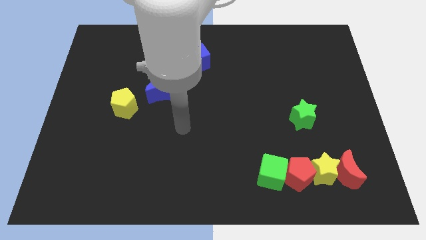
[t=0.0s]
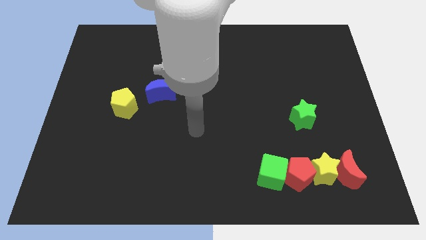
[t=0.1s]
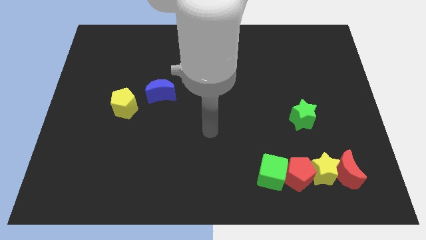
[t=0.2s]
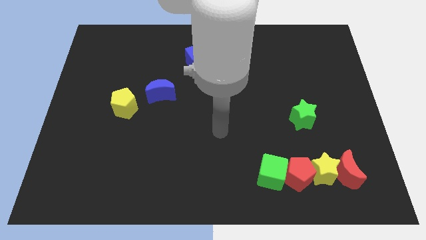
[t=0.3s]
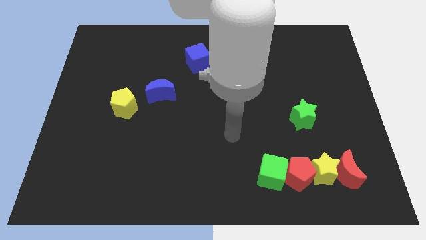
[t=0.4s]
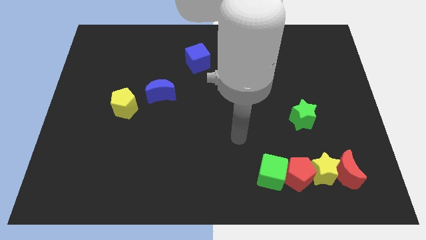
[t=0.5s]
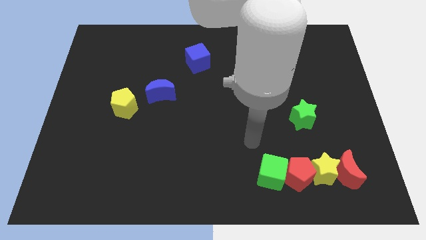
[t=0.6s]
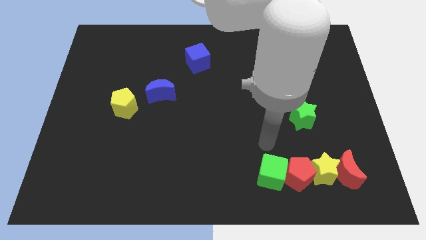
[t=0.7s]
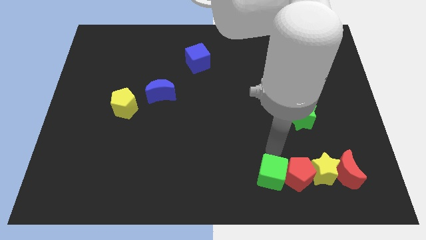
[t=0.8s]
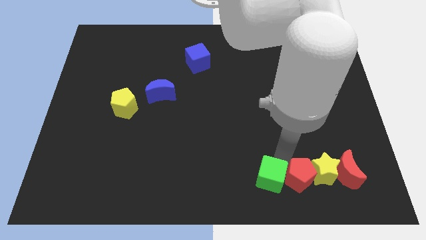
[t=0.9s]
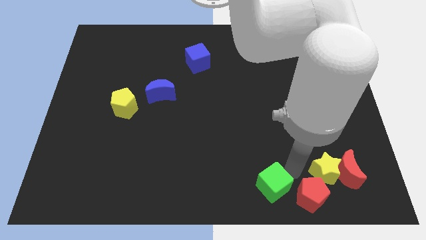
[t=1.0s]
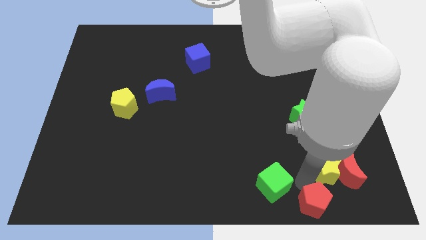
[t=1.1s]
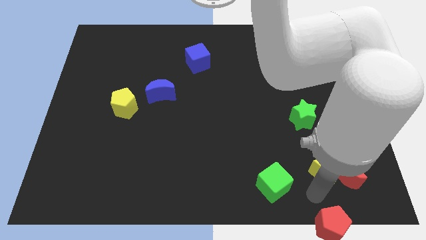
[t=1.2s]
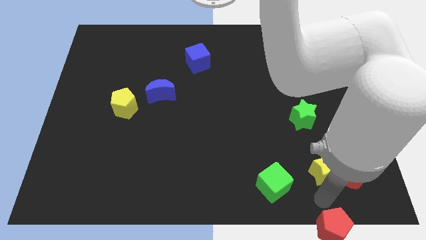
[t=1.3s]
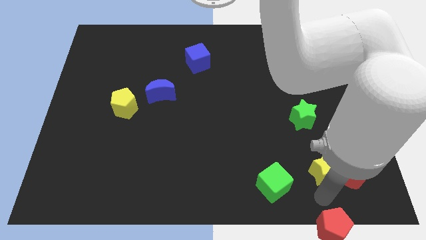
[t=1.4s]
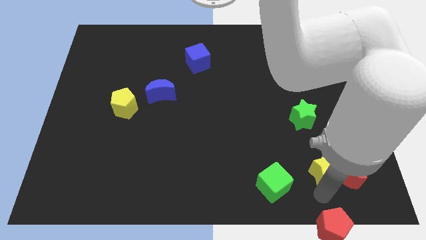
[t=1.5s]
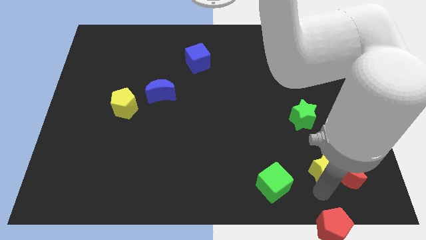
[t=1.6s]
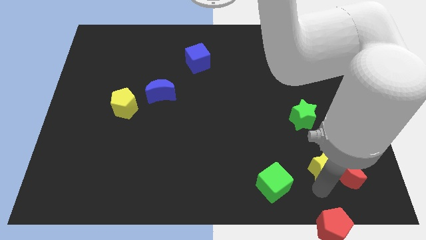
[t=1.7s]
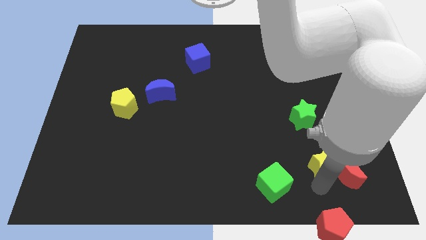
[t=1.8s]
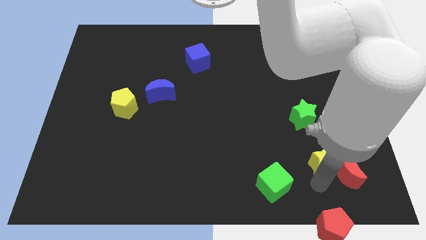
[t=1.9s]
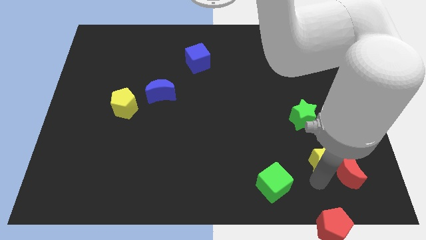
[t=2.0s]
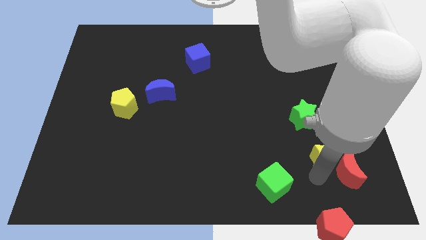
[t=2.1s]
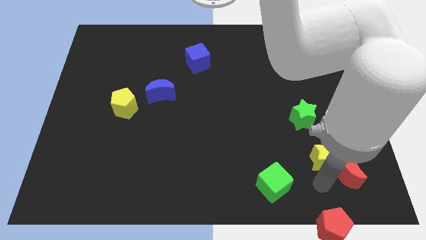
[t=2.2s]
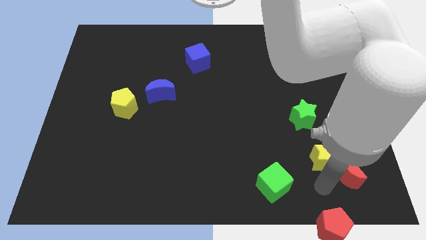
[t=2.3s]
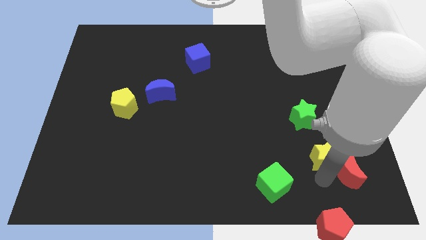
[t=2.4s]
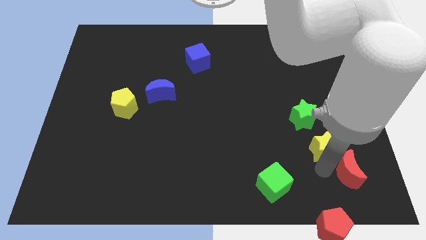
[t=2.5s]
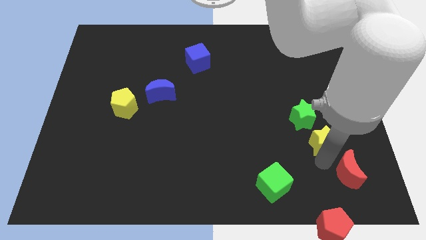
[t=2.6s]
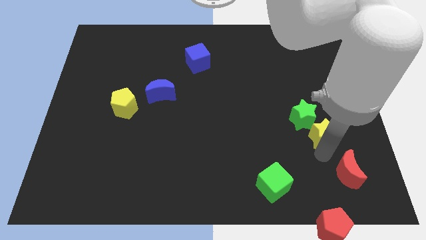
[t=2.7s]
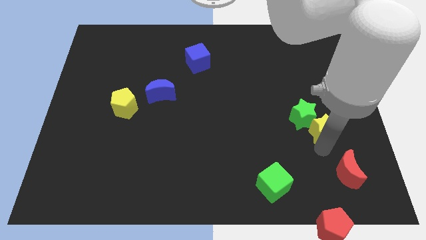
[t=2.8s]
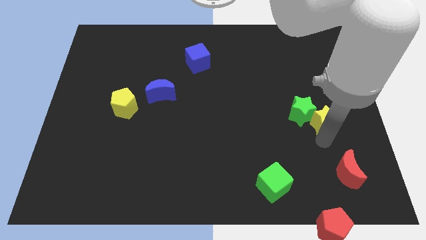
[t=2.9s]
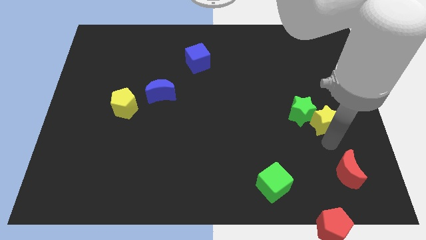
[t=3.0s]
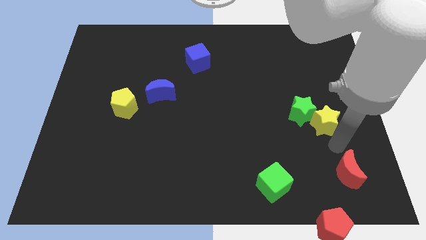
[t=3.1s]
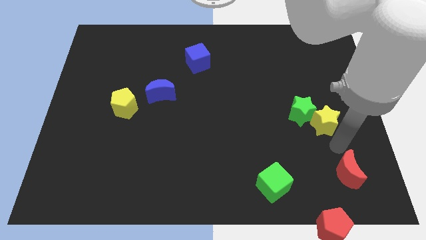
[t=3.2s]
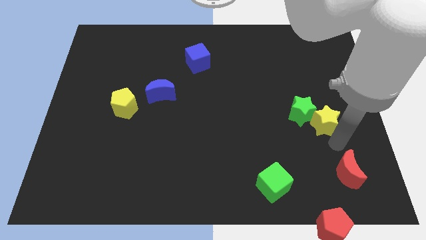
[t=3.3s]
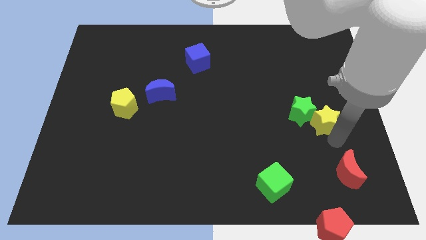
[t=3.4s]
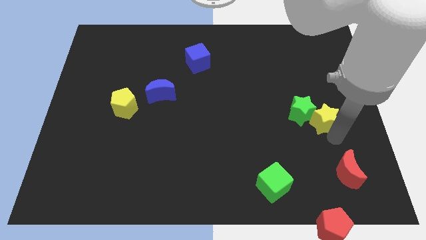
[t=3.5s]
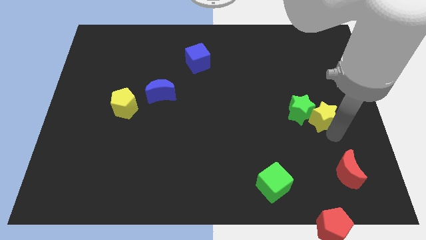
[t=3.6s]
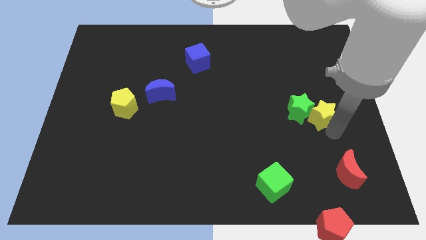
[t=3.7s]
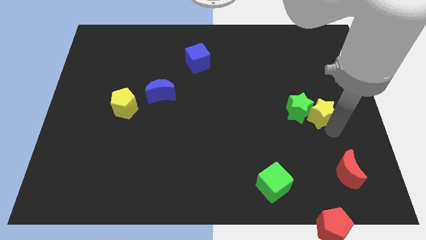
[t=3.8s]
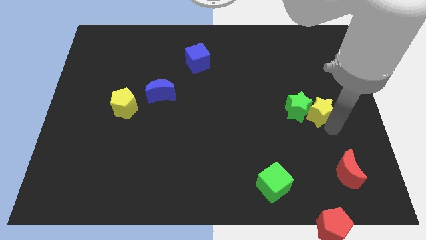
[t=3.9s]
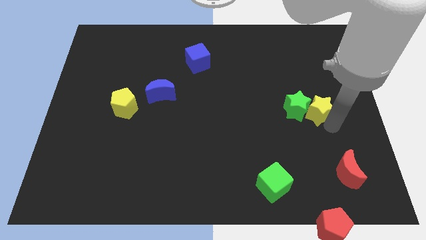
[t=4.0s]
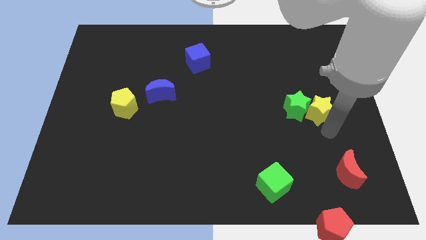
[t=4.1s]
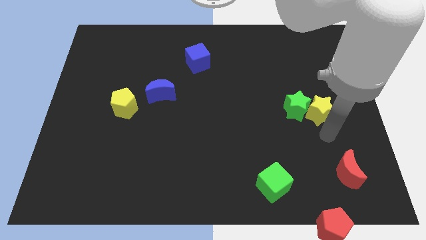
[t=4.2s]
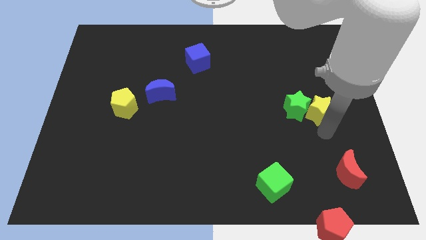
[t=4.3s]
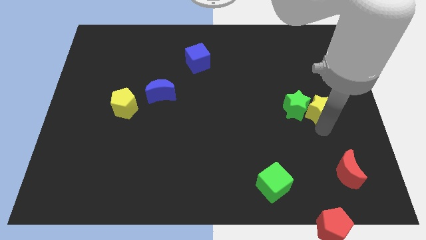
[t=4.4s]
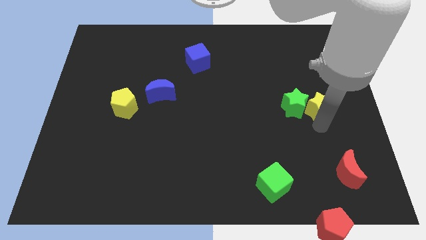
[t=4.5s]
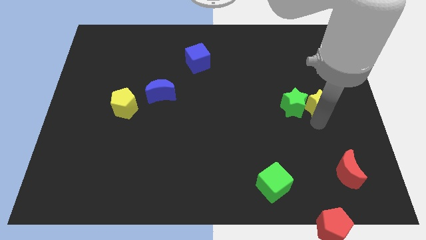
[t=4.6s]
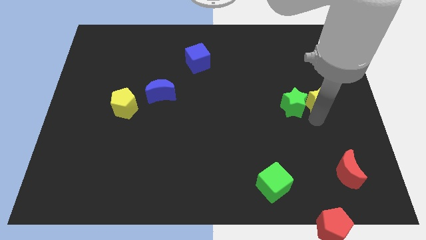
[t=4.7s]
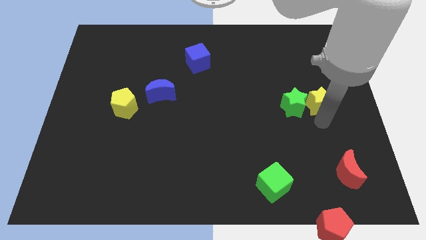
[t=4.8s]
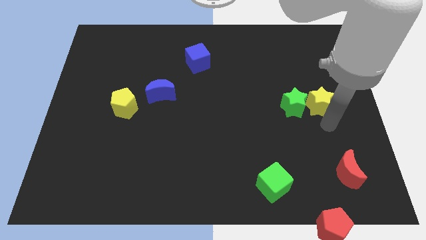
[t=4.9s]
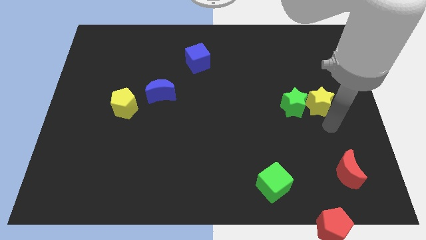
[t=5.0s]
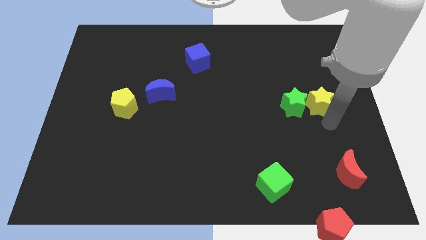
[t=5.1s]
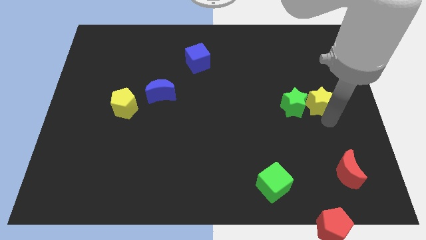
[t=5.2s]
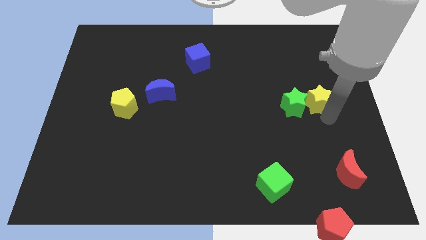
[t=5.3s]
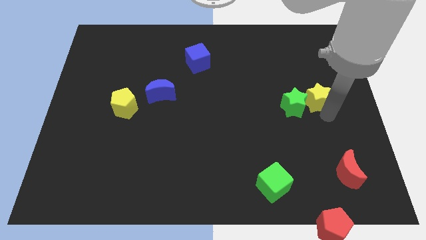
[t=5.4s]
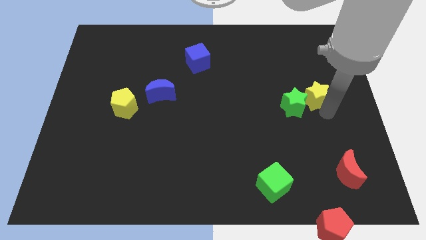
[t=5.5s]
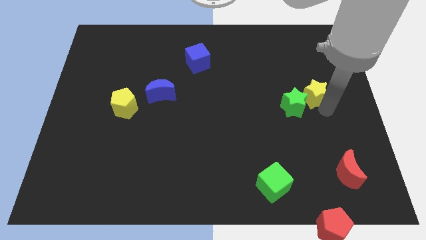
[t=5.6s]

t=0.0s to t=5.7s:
push the yellow star upwards

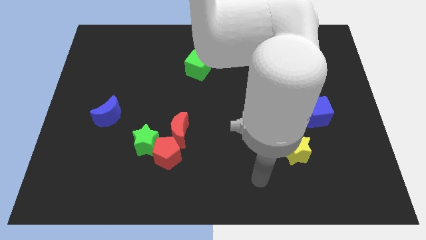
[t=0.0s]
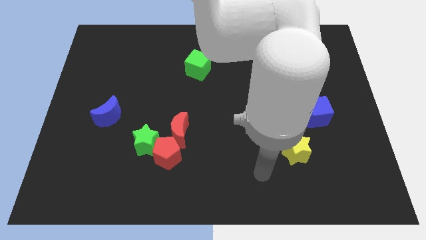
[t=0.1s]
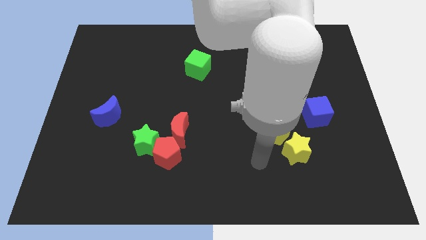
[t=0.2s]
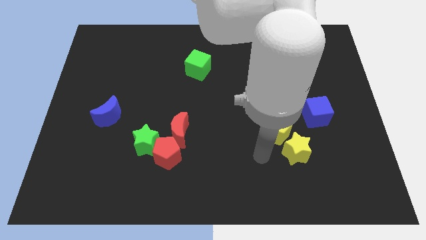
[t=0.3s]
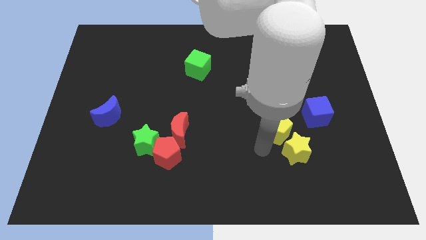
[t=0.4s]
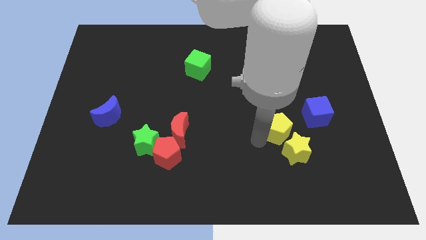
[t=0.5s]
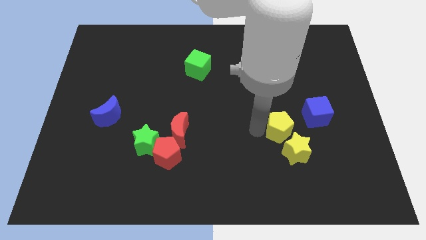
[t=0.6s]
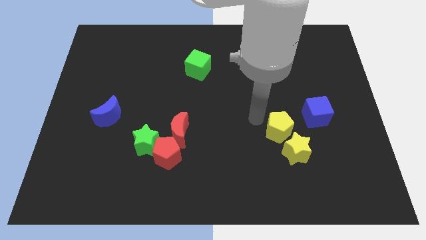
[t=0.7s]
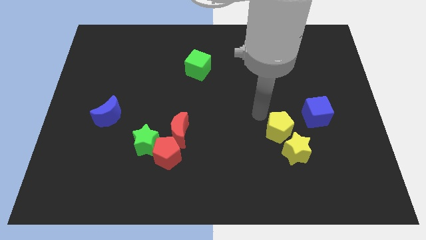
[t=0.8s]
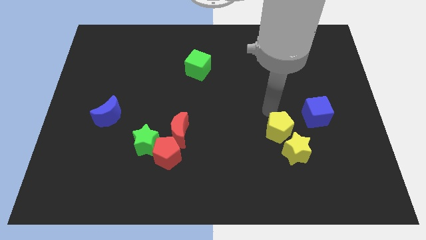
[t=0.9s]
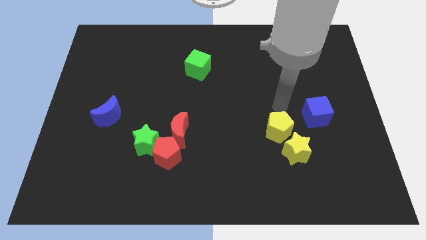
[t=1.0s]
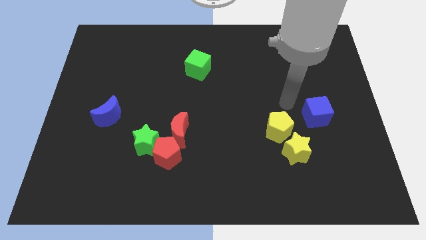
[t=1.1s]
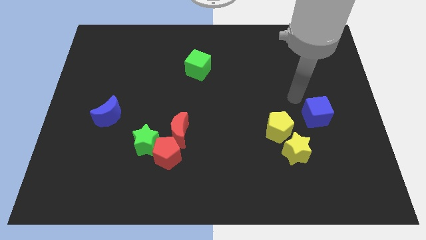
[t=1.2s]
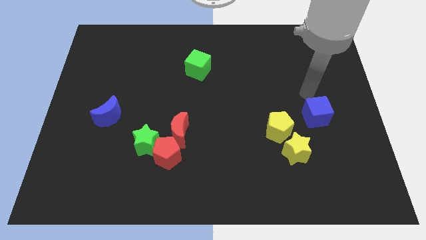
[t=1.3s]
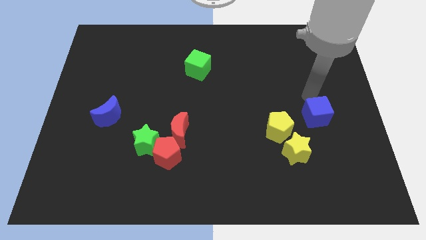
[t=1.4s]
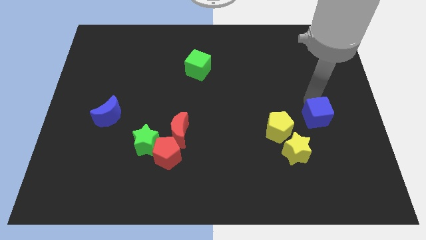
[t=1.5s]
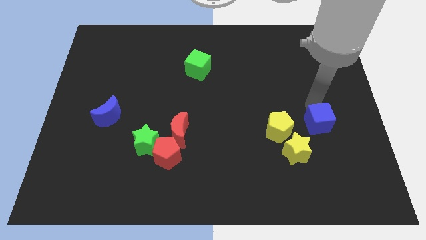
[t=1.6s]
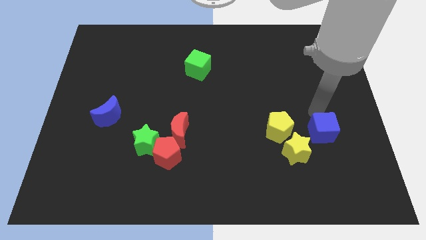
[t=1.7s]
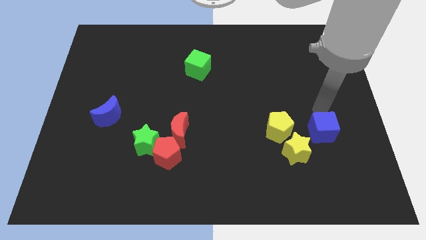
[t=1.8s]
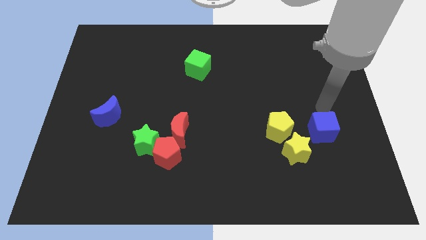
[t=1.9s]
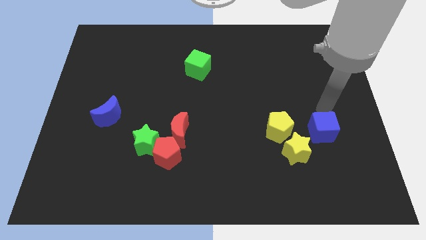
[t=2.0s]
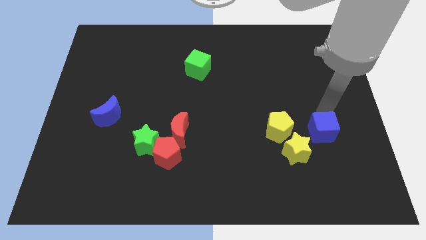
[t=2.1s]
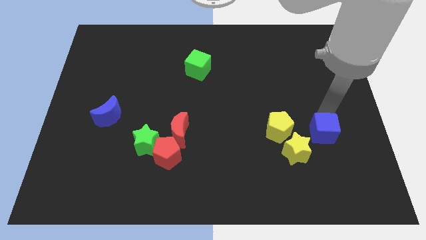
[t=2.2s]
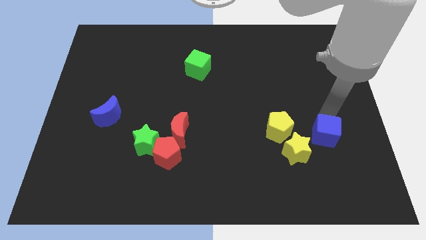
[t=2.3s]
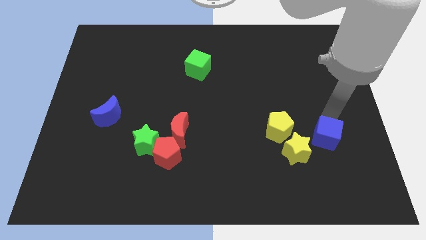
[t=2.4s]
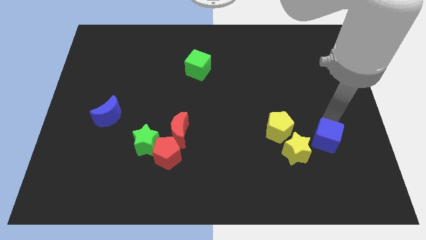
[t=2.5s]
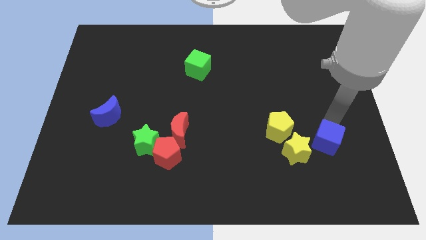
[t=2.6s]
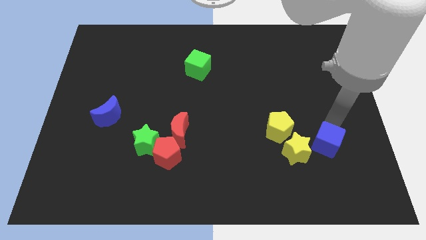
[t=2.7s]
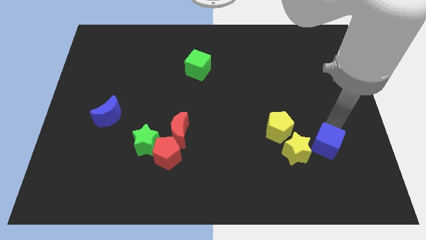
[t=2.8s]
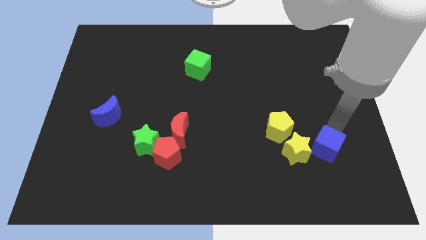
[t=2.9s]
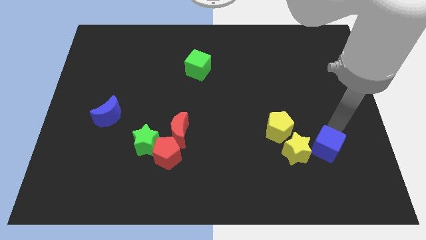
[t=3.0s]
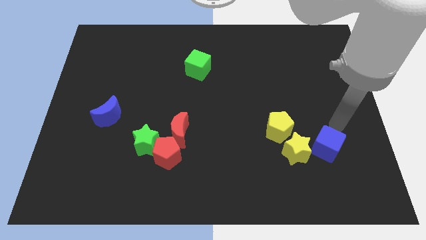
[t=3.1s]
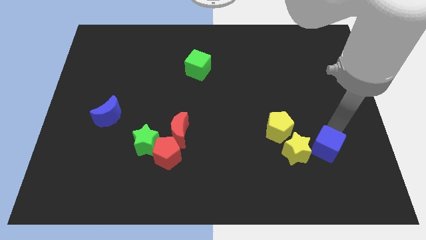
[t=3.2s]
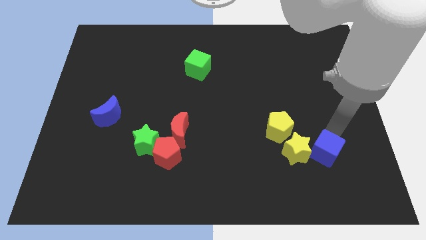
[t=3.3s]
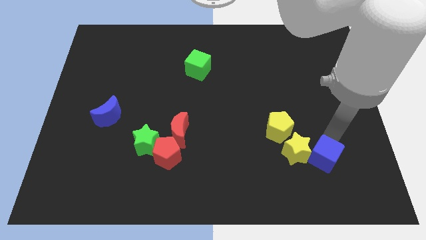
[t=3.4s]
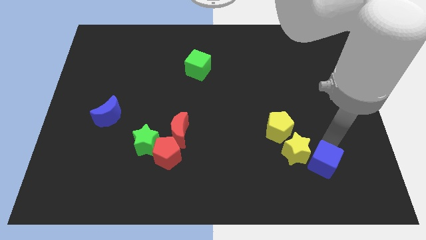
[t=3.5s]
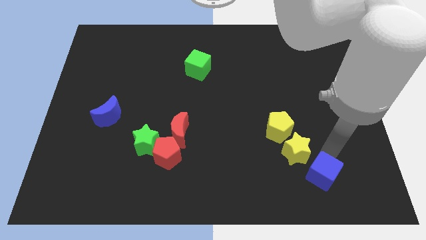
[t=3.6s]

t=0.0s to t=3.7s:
slightly slide the blue cube downwards and to the left diagonally
